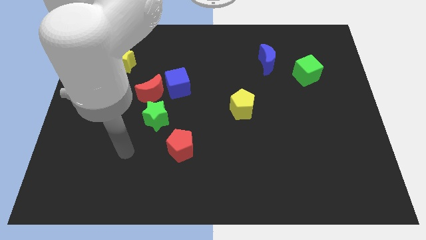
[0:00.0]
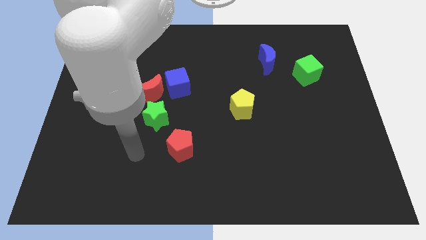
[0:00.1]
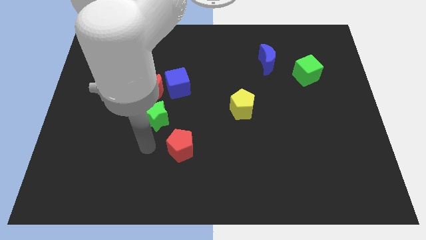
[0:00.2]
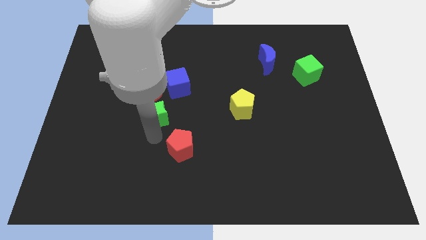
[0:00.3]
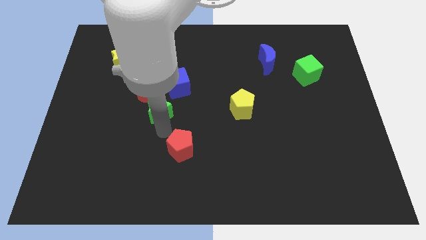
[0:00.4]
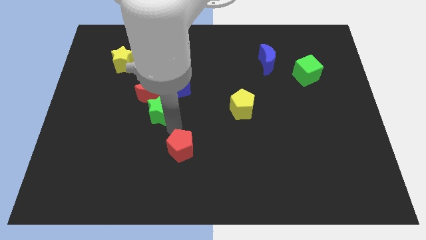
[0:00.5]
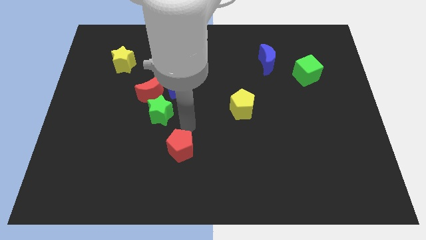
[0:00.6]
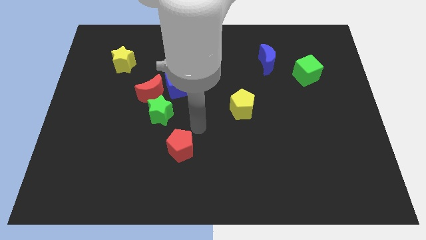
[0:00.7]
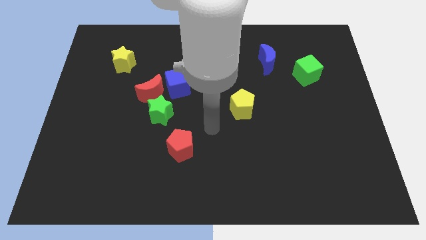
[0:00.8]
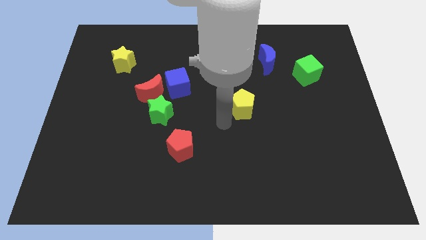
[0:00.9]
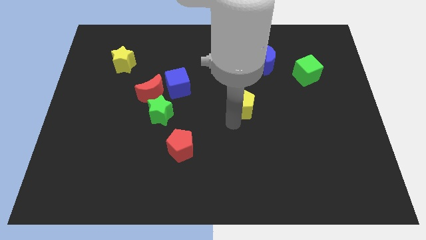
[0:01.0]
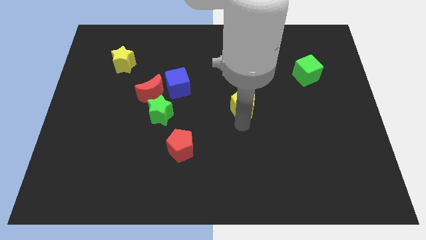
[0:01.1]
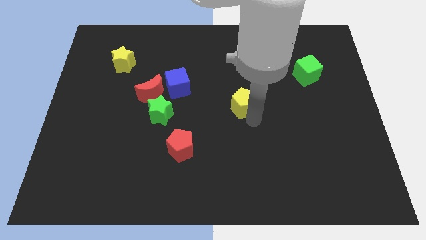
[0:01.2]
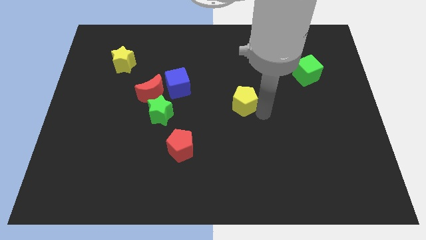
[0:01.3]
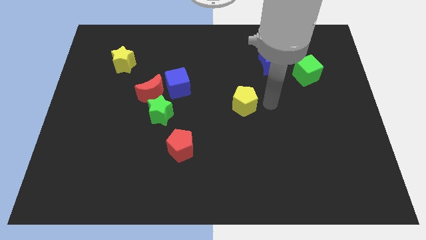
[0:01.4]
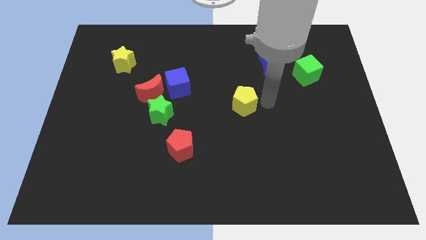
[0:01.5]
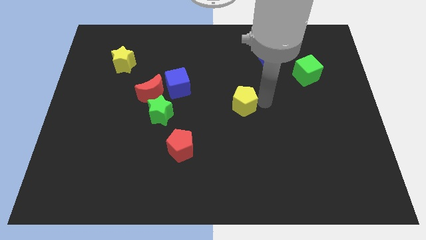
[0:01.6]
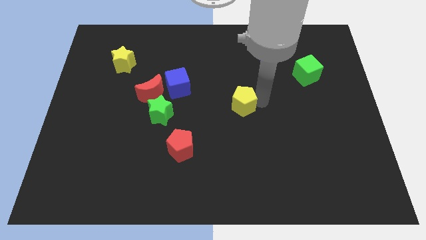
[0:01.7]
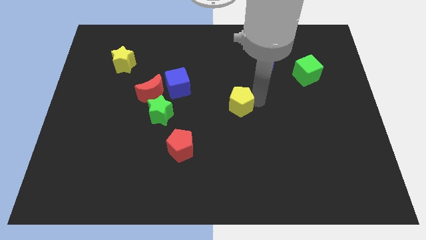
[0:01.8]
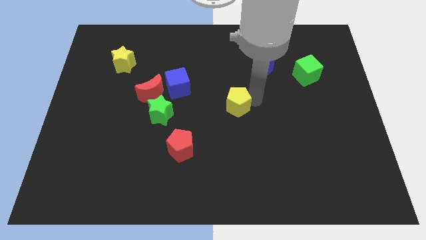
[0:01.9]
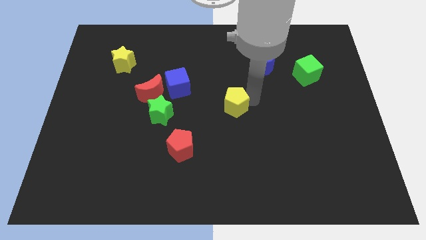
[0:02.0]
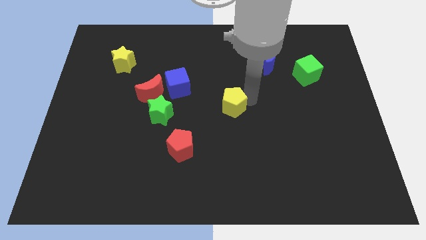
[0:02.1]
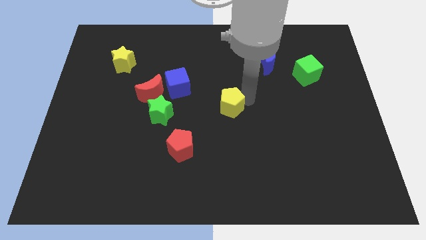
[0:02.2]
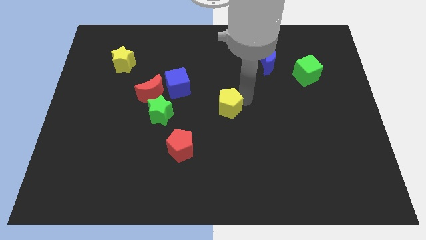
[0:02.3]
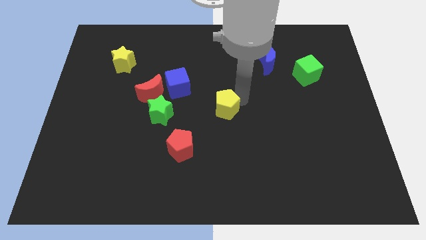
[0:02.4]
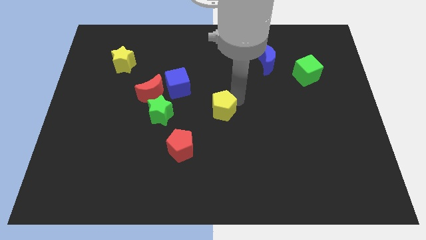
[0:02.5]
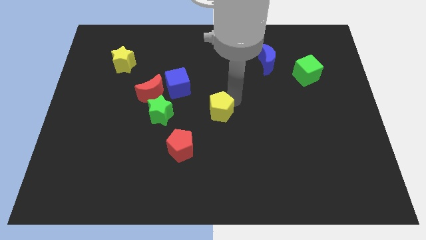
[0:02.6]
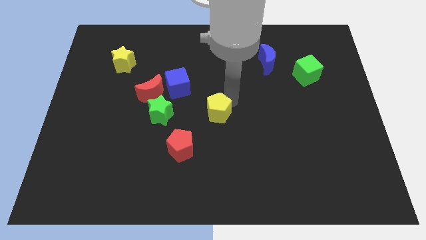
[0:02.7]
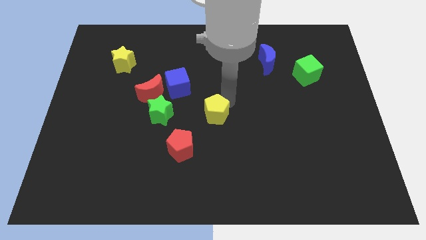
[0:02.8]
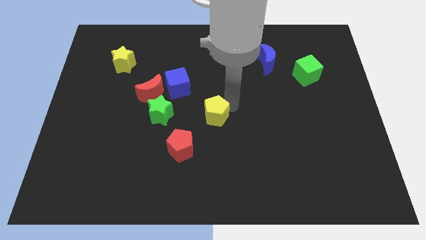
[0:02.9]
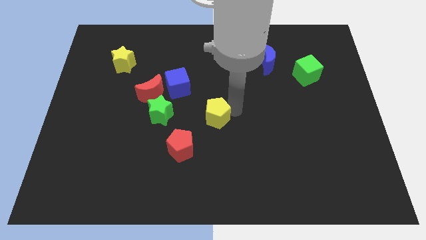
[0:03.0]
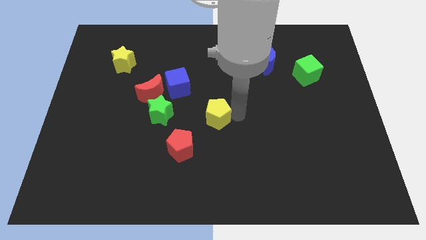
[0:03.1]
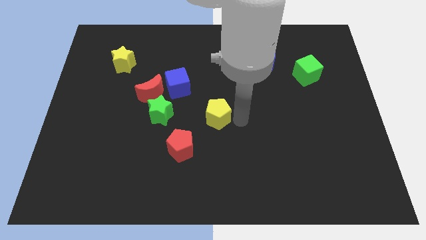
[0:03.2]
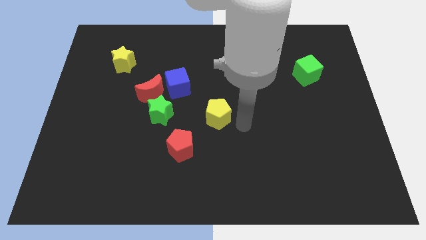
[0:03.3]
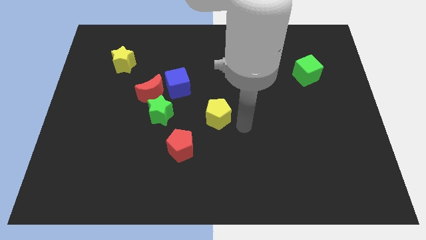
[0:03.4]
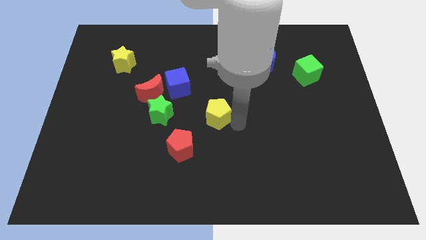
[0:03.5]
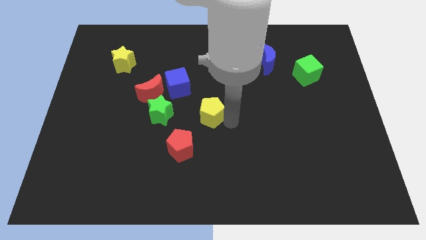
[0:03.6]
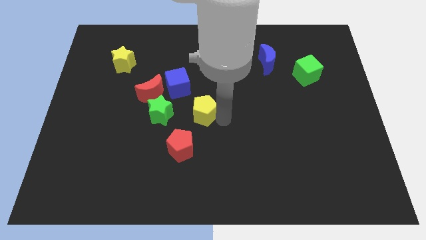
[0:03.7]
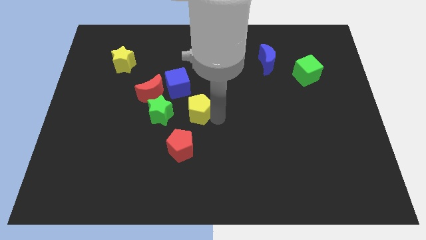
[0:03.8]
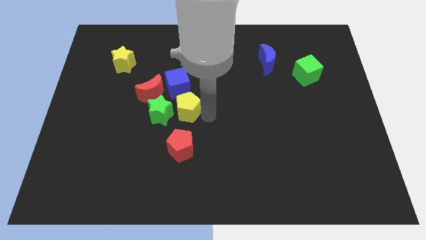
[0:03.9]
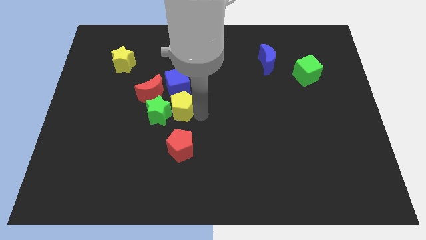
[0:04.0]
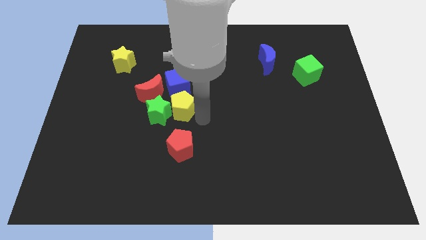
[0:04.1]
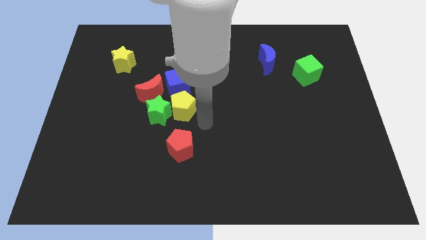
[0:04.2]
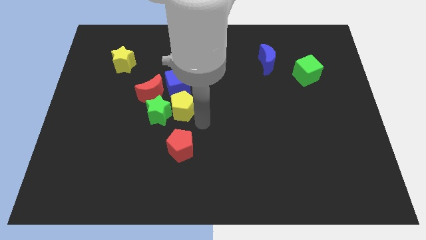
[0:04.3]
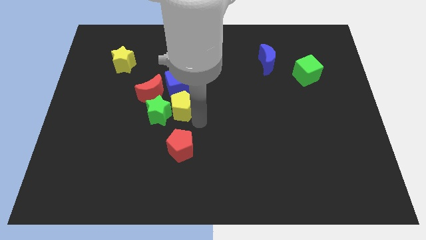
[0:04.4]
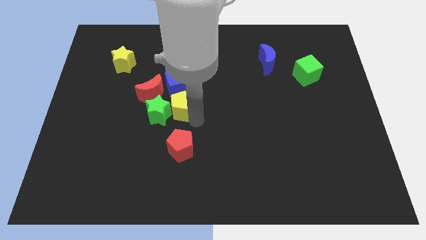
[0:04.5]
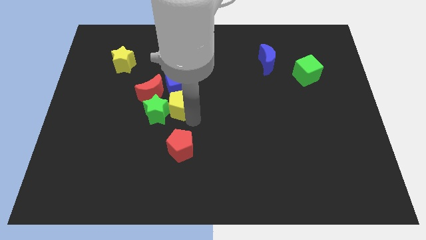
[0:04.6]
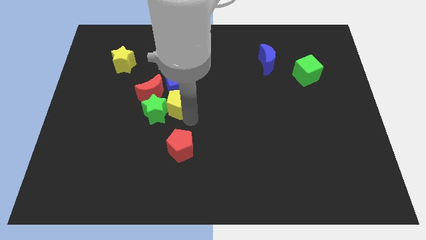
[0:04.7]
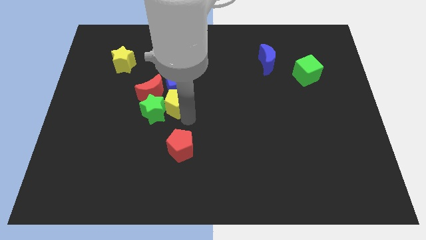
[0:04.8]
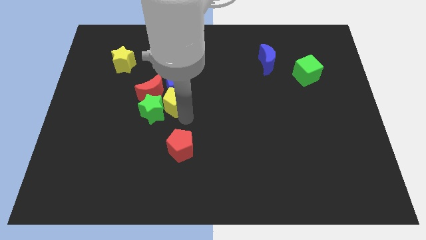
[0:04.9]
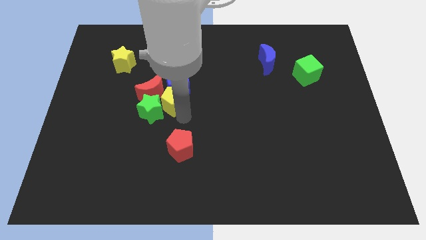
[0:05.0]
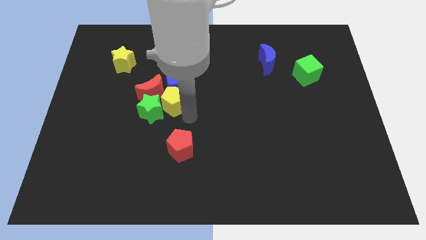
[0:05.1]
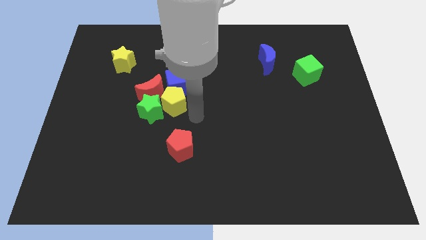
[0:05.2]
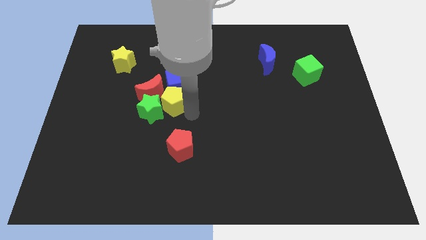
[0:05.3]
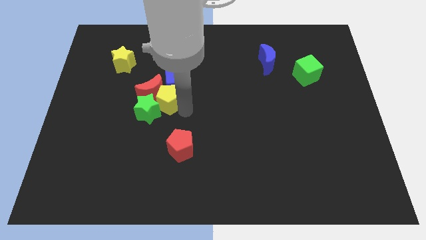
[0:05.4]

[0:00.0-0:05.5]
push the yellow pentagon towards the red moon

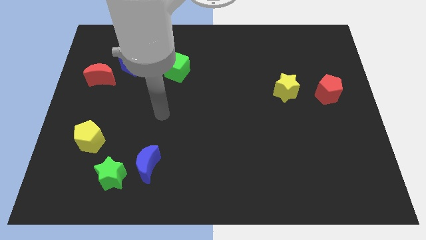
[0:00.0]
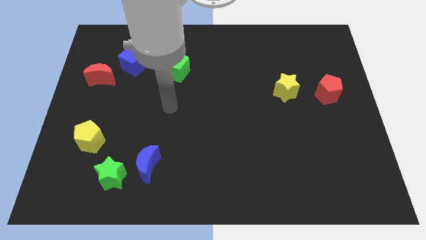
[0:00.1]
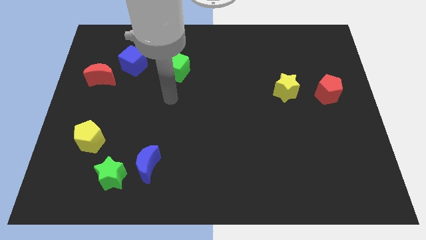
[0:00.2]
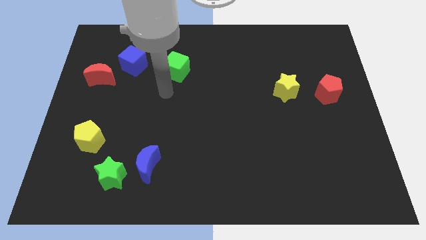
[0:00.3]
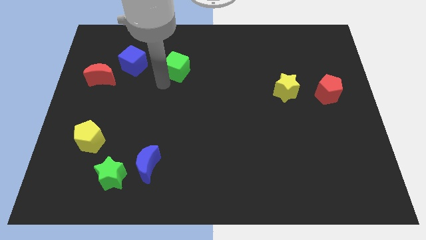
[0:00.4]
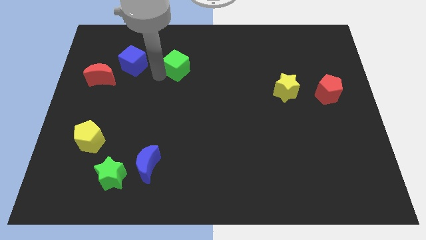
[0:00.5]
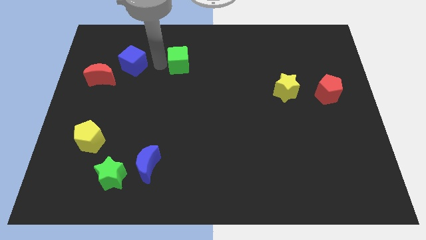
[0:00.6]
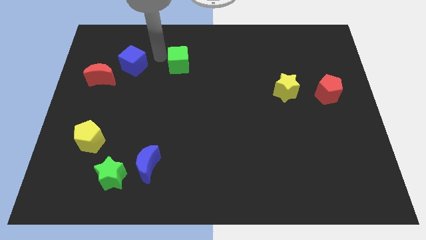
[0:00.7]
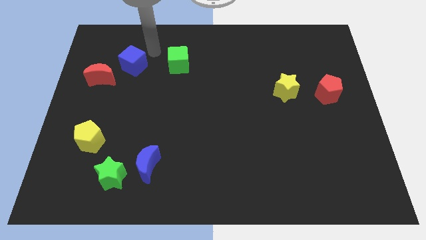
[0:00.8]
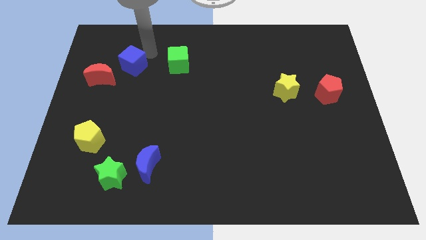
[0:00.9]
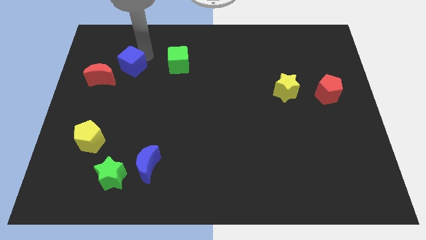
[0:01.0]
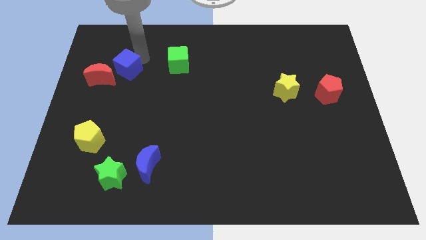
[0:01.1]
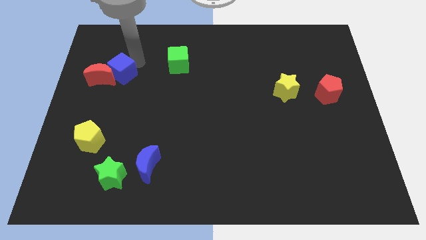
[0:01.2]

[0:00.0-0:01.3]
move the blue cube towards the red moon

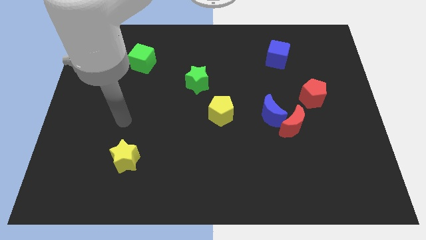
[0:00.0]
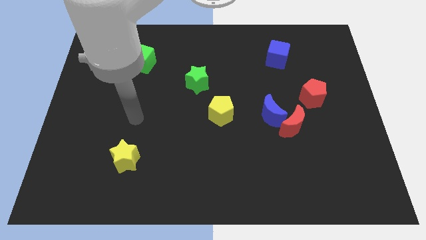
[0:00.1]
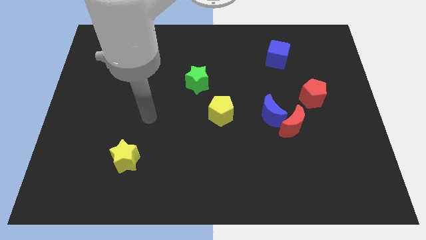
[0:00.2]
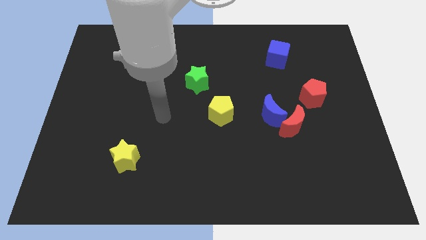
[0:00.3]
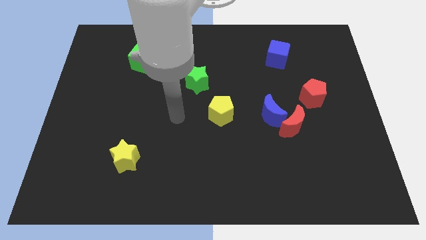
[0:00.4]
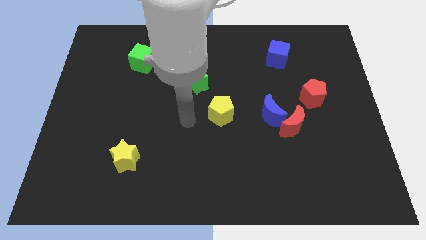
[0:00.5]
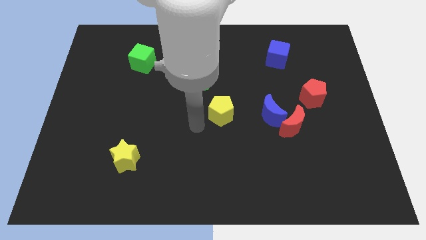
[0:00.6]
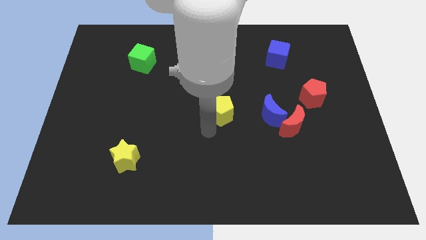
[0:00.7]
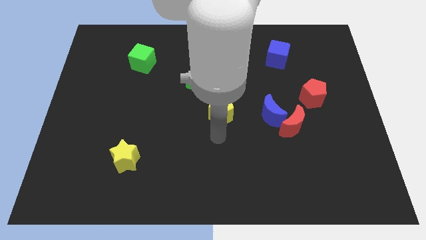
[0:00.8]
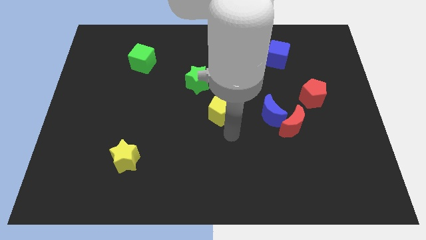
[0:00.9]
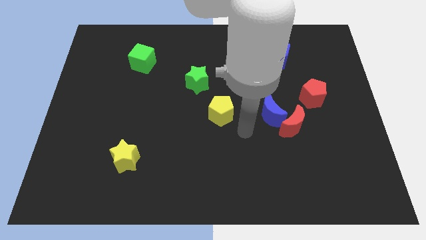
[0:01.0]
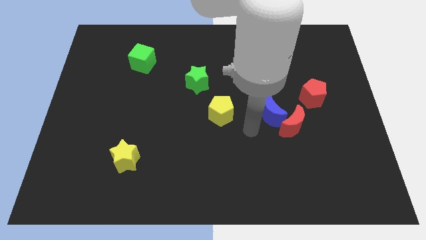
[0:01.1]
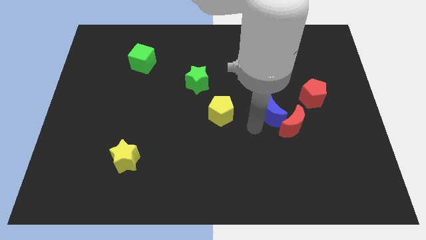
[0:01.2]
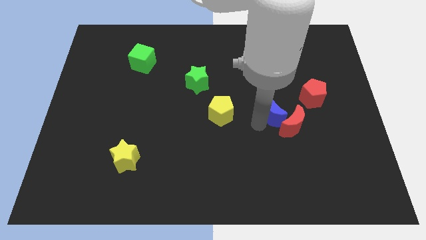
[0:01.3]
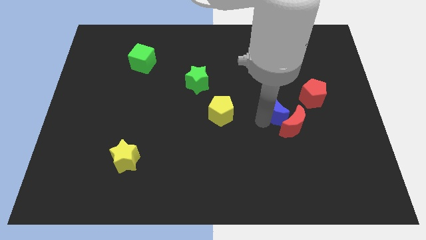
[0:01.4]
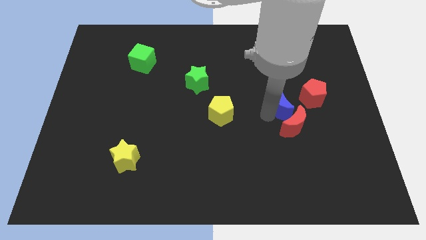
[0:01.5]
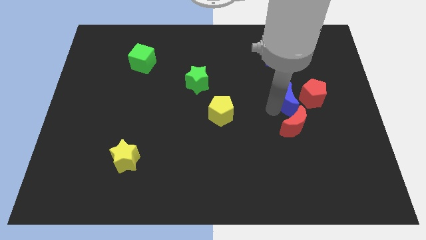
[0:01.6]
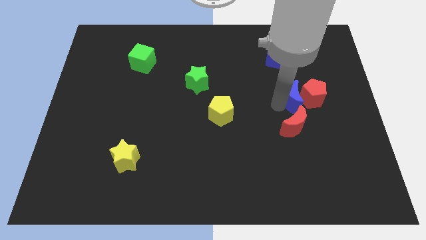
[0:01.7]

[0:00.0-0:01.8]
push the blue moon next to the red pentagon
